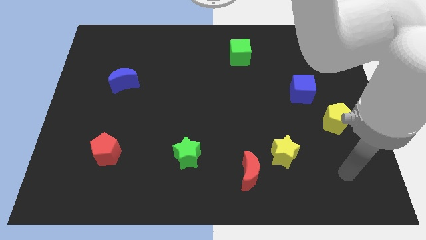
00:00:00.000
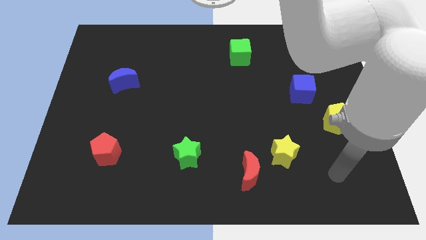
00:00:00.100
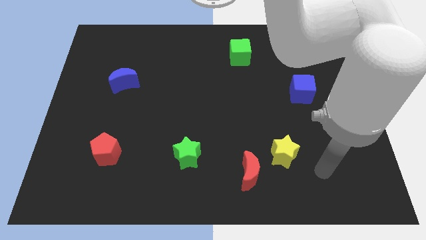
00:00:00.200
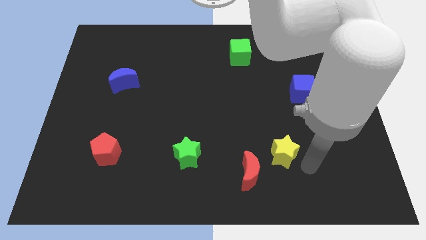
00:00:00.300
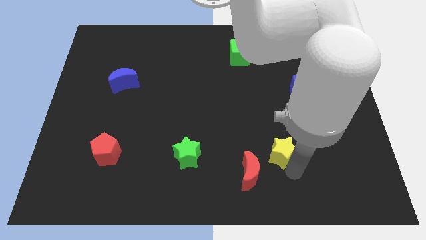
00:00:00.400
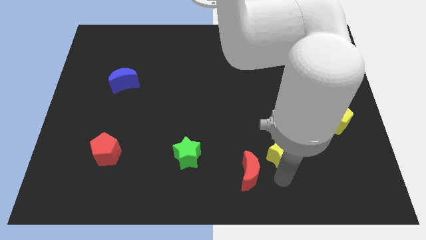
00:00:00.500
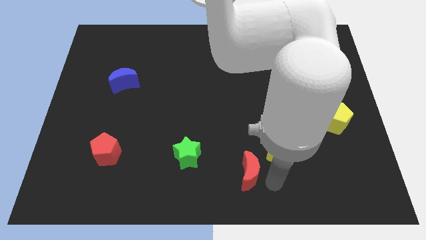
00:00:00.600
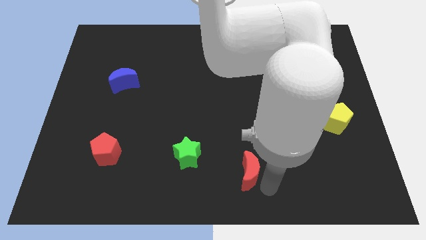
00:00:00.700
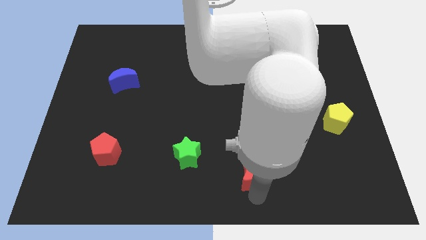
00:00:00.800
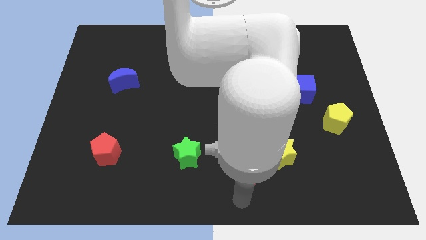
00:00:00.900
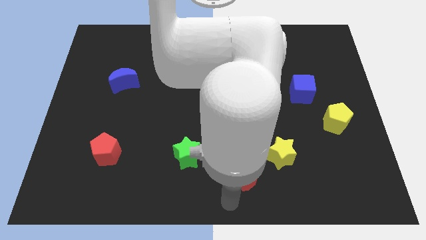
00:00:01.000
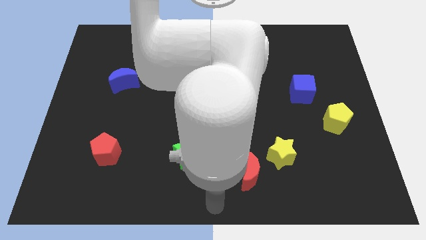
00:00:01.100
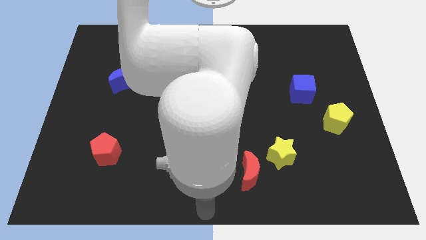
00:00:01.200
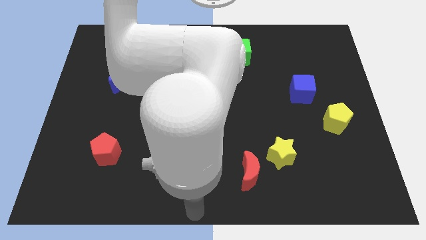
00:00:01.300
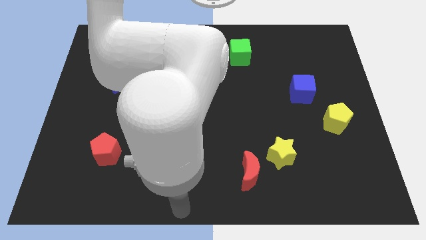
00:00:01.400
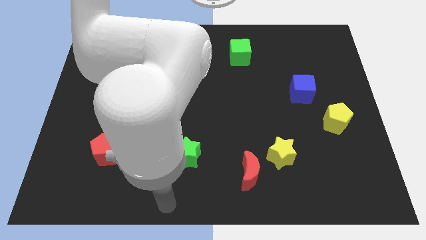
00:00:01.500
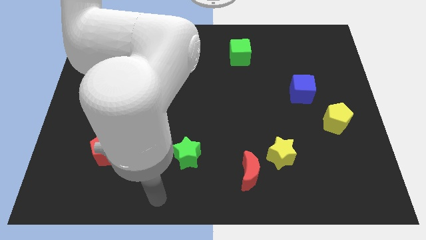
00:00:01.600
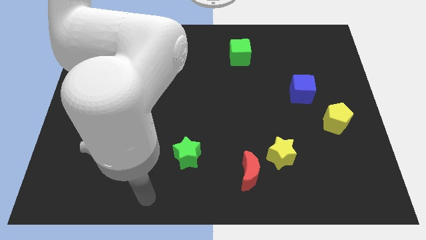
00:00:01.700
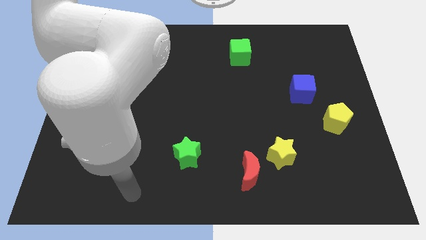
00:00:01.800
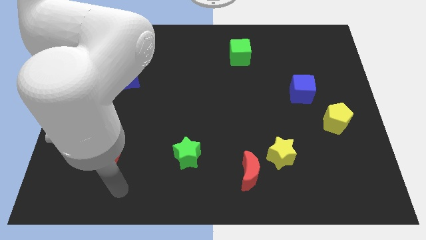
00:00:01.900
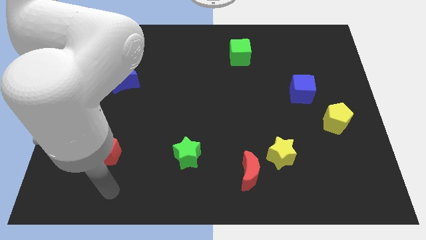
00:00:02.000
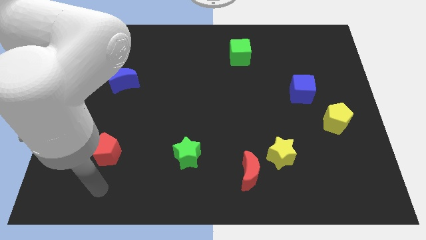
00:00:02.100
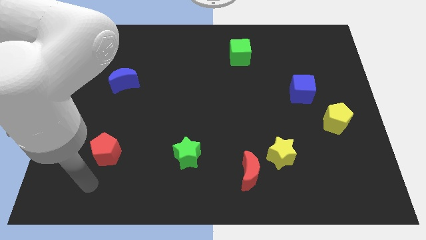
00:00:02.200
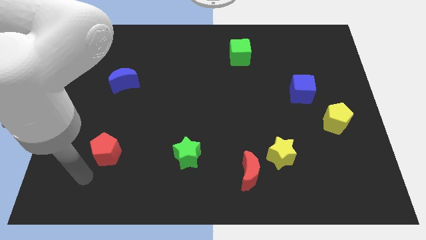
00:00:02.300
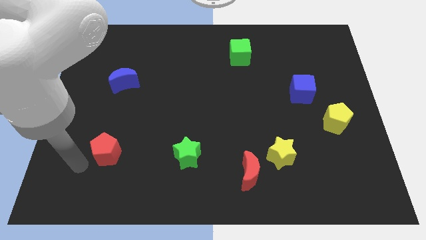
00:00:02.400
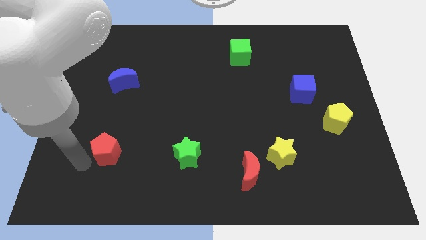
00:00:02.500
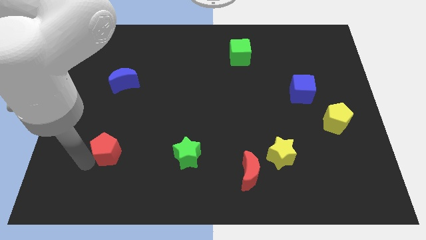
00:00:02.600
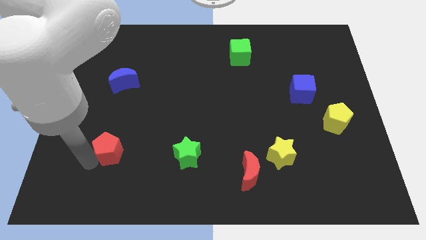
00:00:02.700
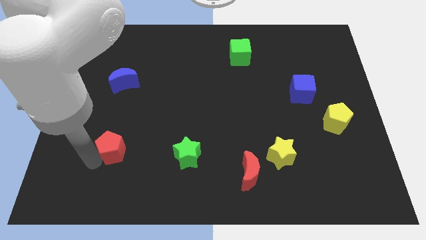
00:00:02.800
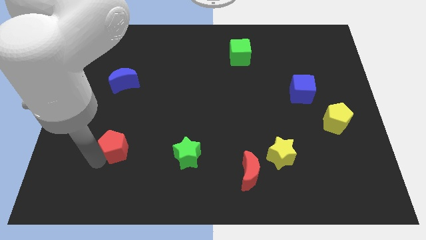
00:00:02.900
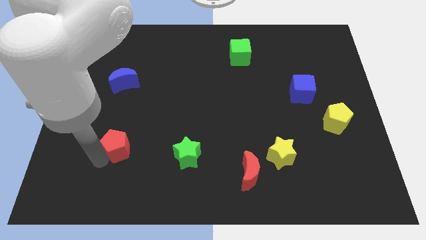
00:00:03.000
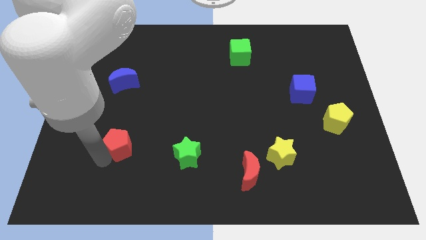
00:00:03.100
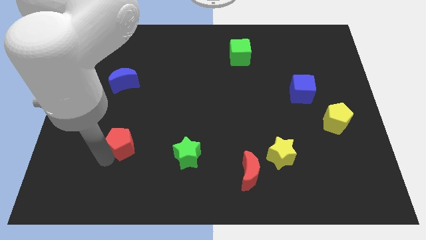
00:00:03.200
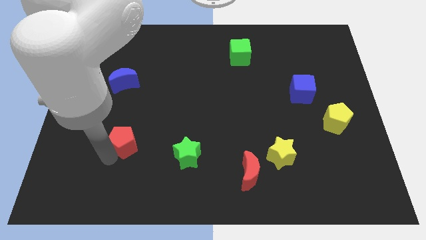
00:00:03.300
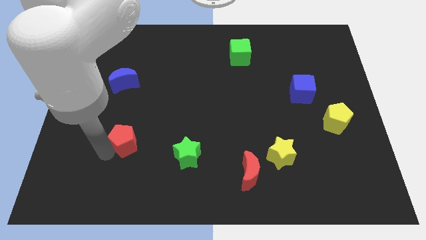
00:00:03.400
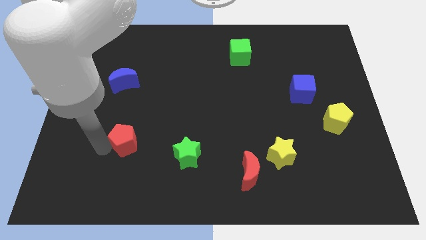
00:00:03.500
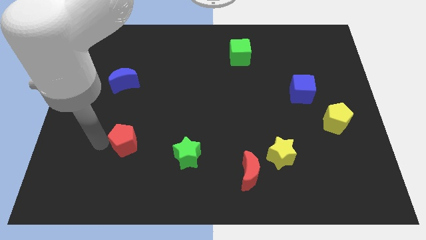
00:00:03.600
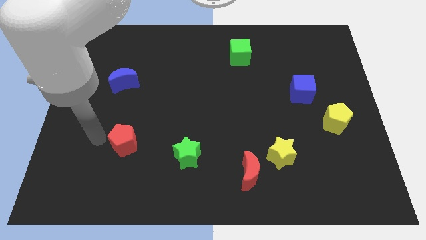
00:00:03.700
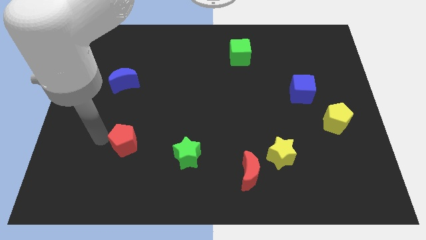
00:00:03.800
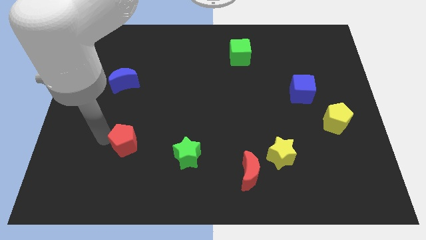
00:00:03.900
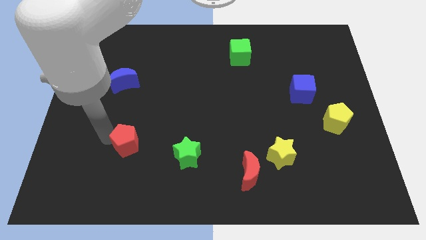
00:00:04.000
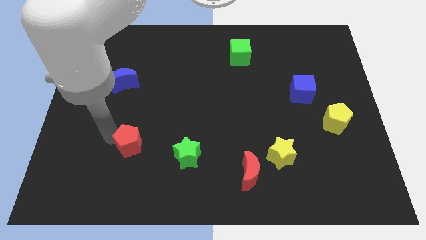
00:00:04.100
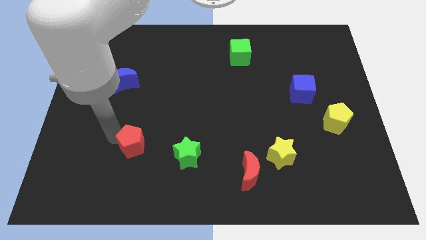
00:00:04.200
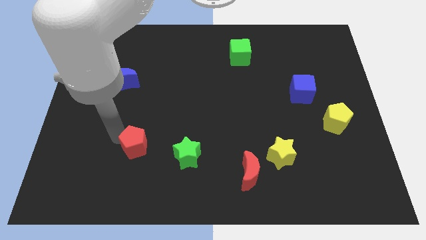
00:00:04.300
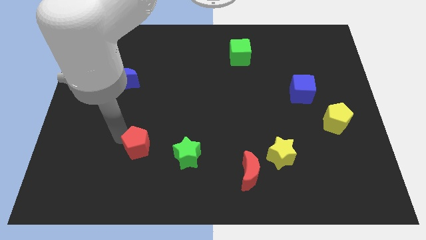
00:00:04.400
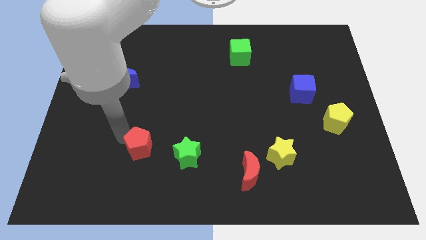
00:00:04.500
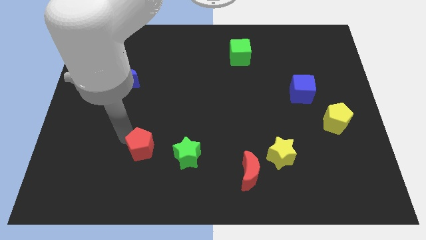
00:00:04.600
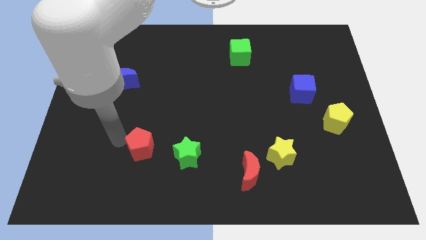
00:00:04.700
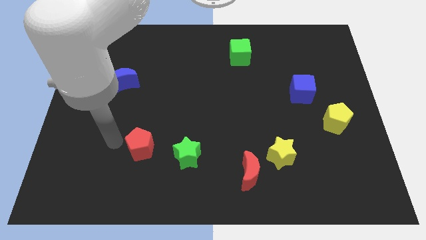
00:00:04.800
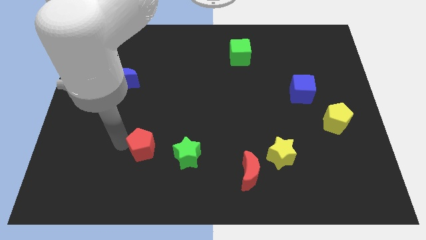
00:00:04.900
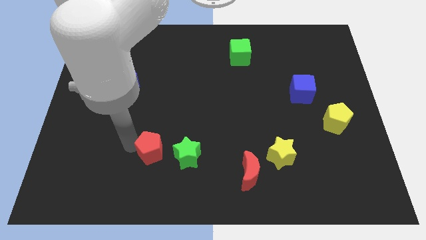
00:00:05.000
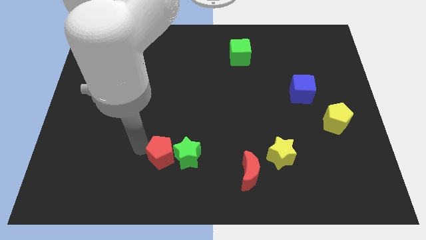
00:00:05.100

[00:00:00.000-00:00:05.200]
move the red pentagon towards the green star

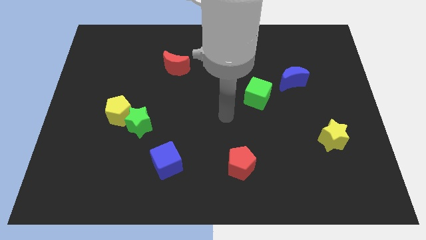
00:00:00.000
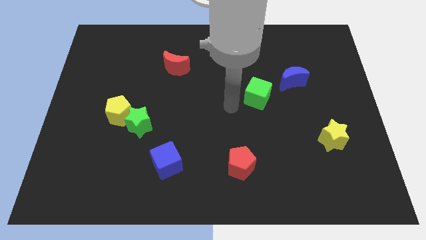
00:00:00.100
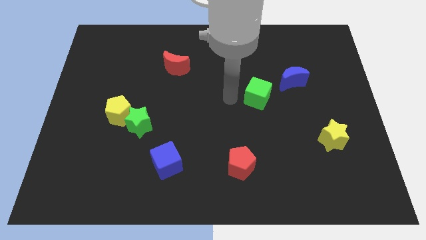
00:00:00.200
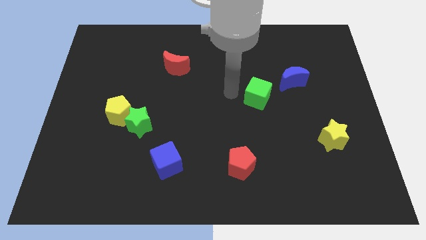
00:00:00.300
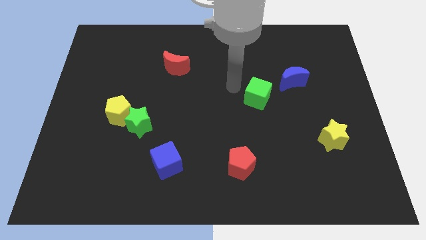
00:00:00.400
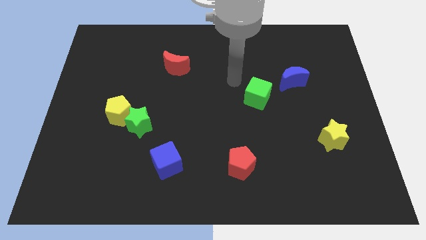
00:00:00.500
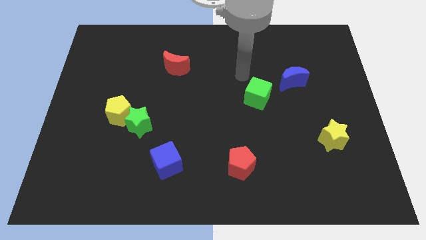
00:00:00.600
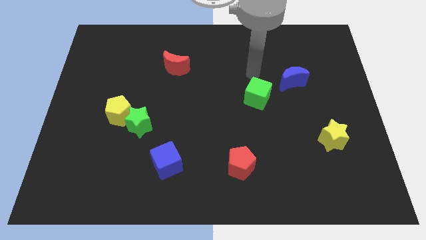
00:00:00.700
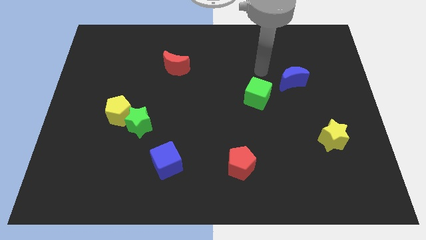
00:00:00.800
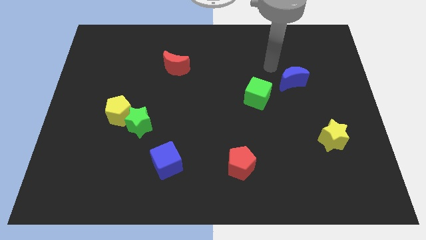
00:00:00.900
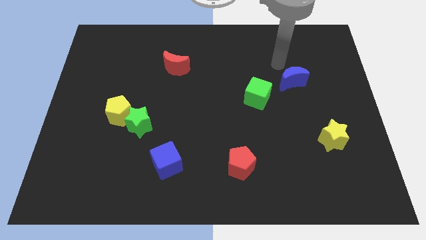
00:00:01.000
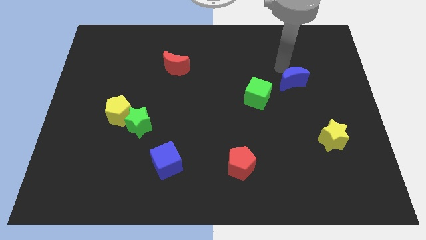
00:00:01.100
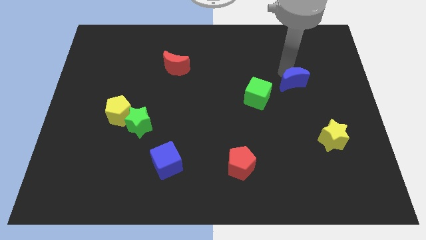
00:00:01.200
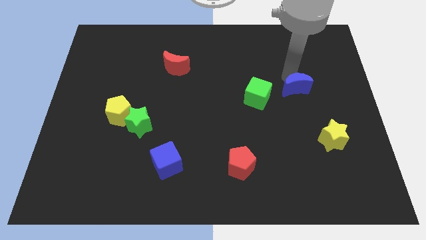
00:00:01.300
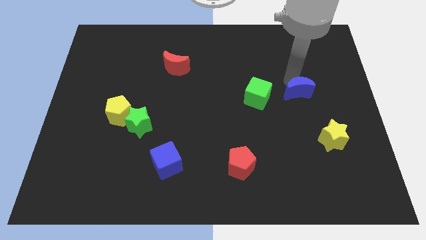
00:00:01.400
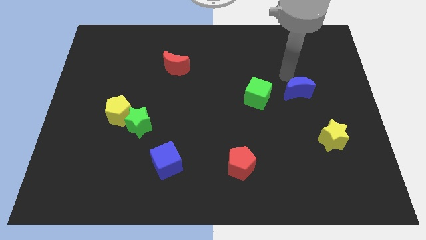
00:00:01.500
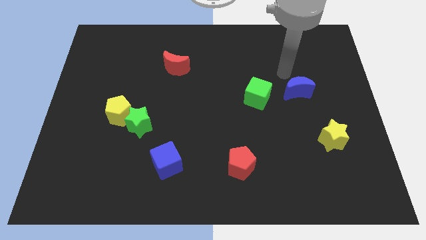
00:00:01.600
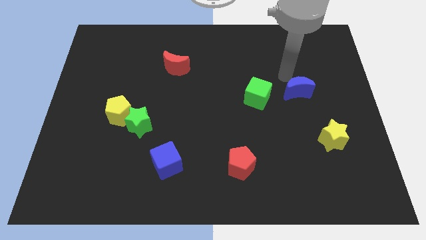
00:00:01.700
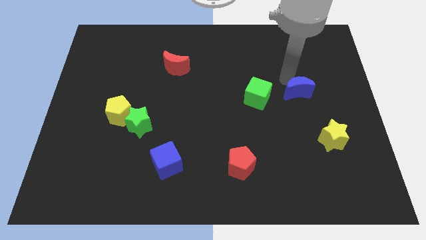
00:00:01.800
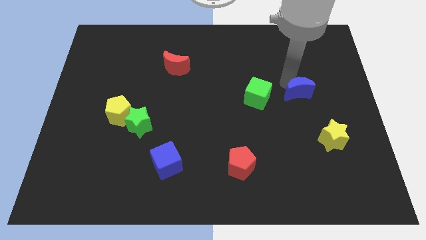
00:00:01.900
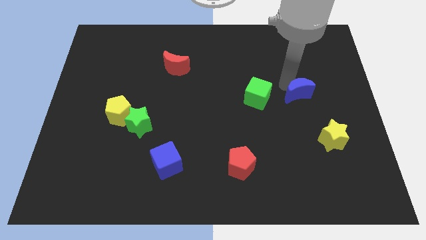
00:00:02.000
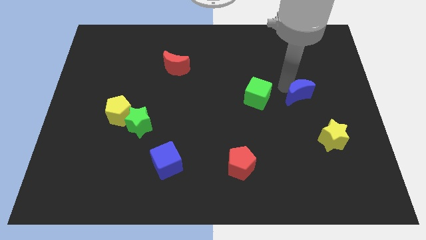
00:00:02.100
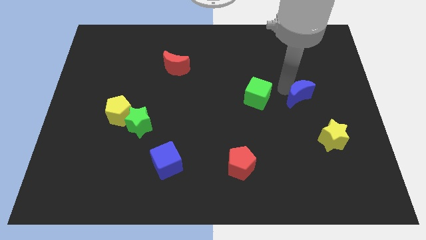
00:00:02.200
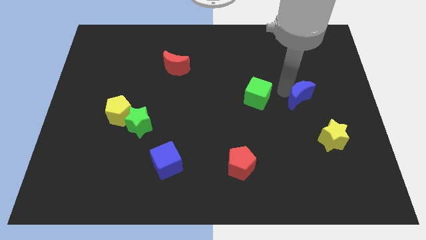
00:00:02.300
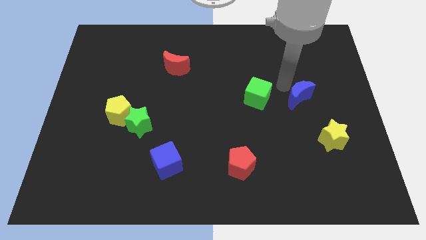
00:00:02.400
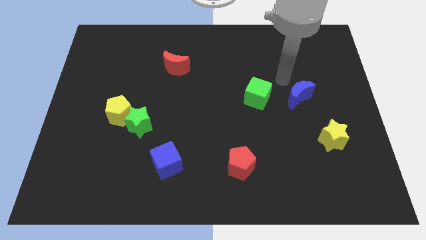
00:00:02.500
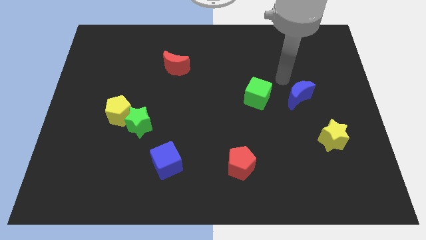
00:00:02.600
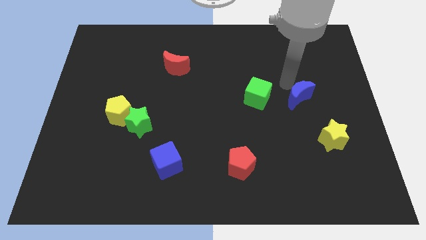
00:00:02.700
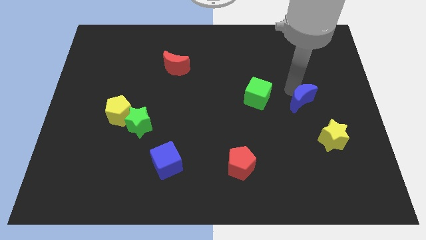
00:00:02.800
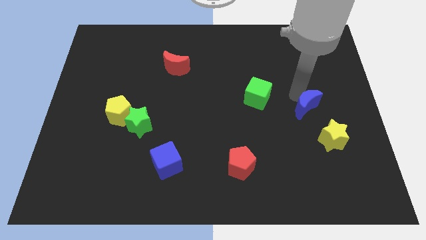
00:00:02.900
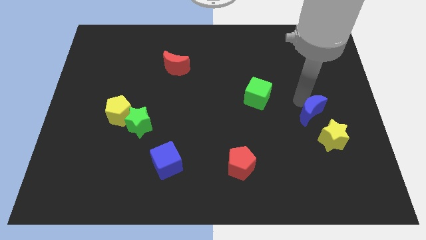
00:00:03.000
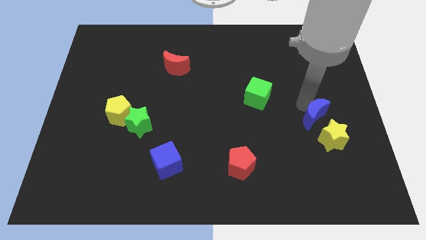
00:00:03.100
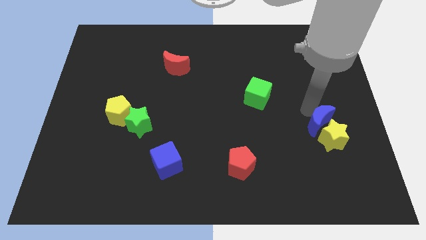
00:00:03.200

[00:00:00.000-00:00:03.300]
slide the blue moon next to the yellow star
